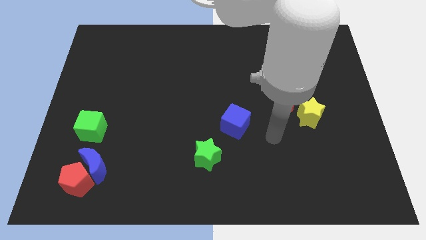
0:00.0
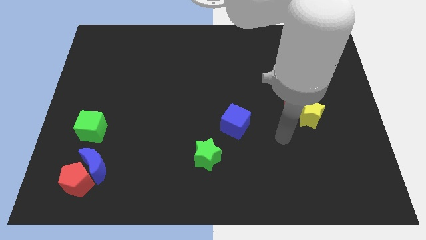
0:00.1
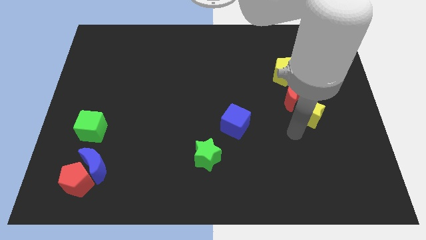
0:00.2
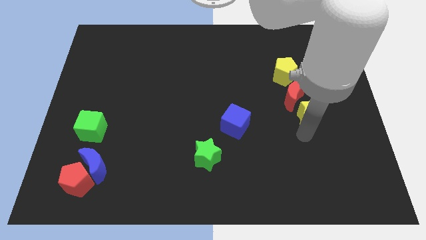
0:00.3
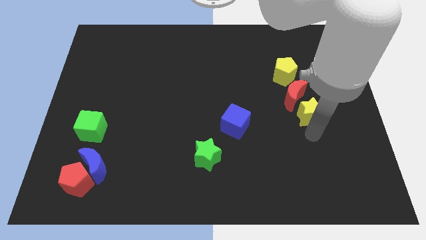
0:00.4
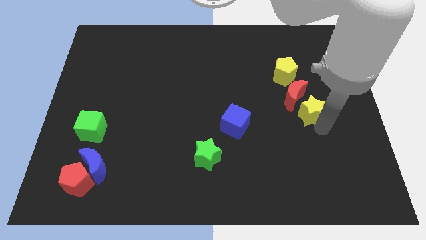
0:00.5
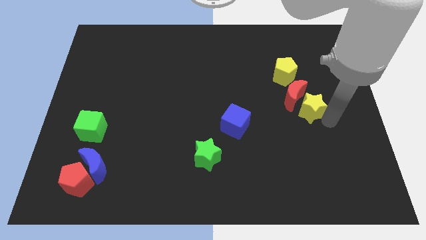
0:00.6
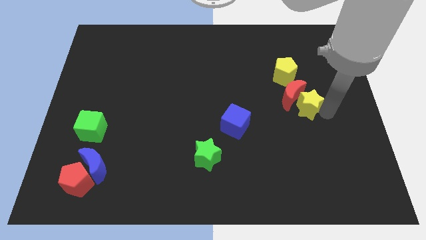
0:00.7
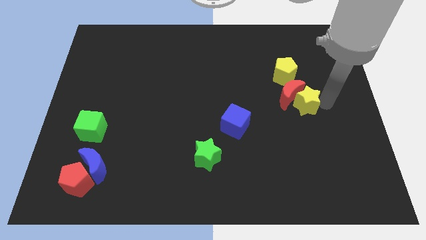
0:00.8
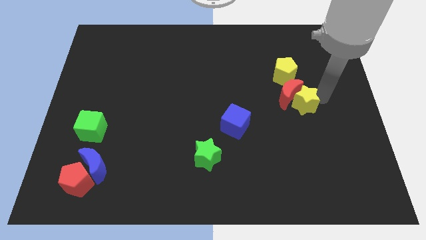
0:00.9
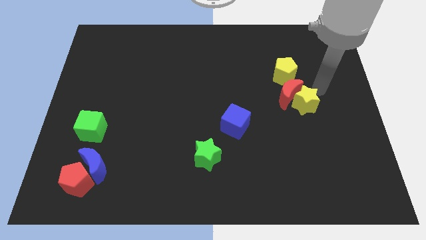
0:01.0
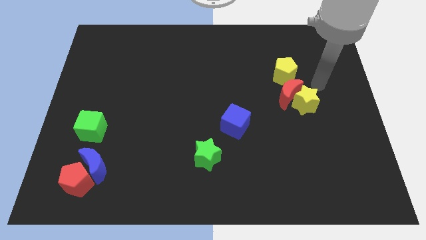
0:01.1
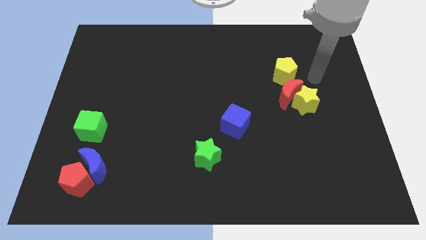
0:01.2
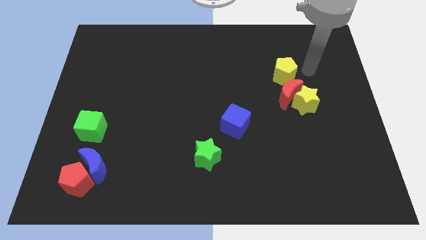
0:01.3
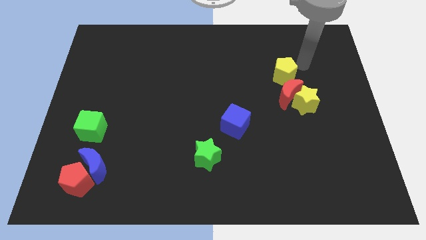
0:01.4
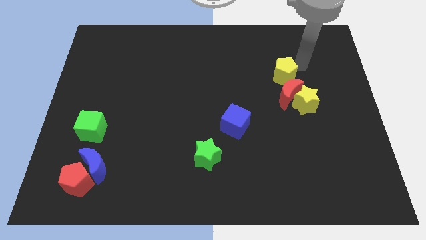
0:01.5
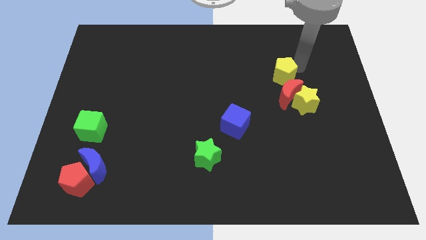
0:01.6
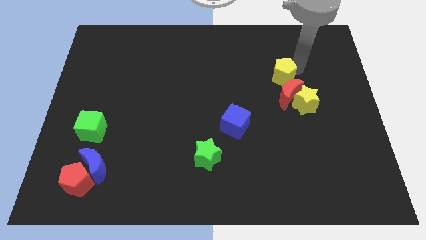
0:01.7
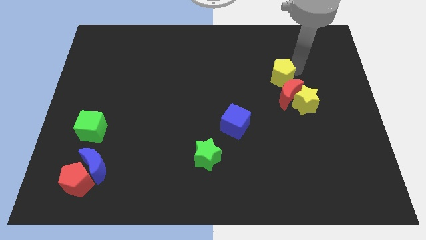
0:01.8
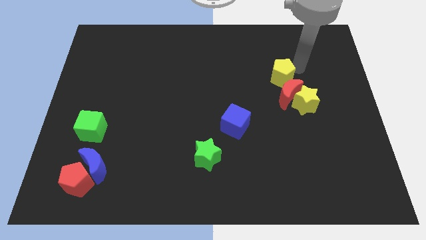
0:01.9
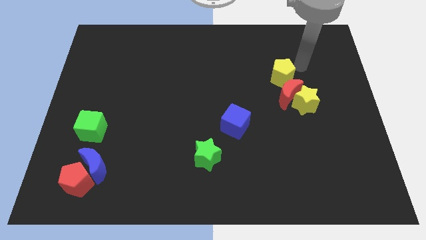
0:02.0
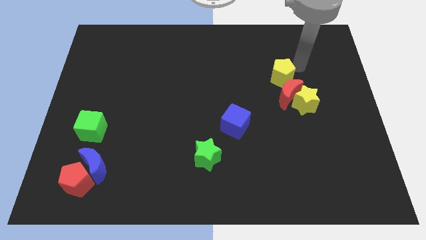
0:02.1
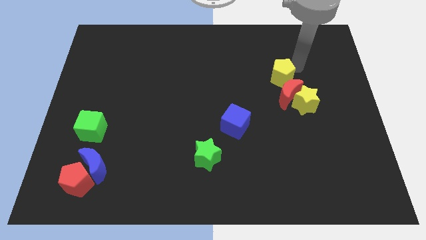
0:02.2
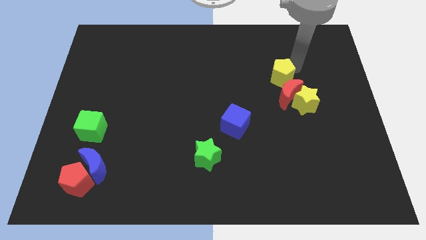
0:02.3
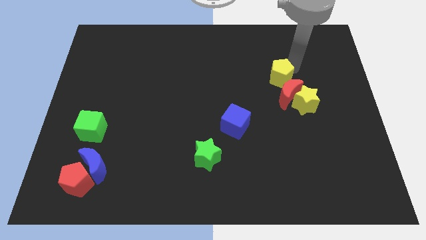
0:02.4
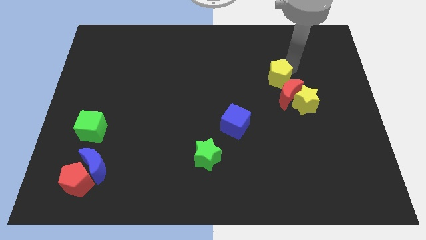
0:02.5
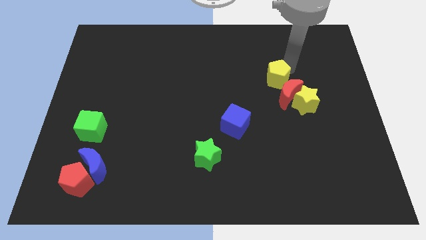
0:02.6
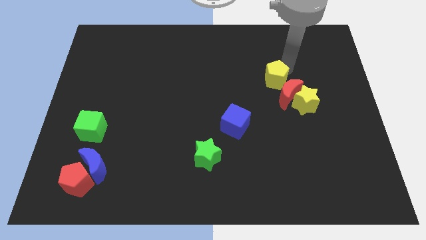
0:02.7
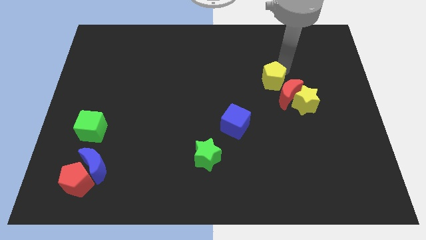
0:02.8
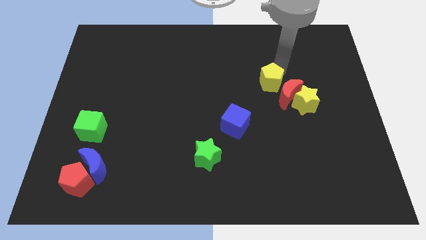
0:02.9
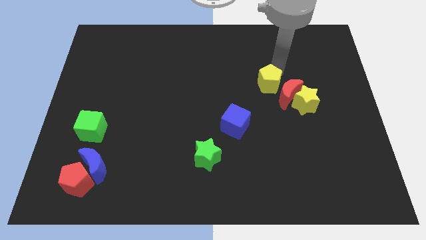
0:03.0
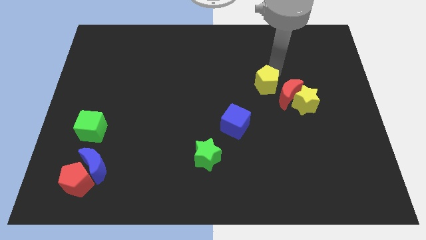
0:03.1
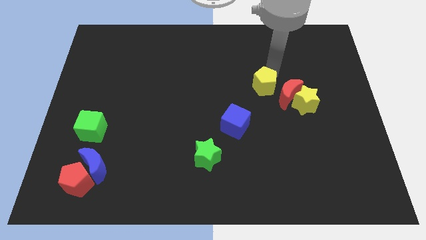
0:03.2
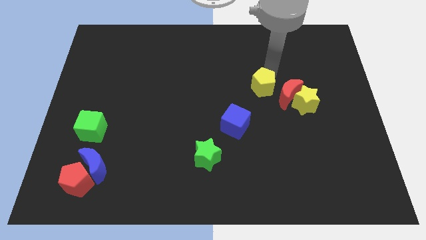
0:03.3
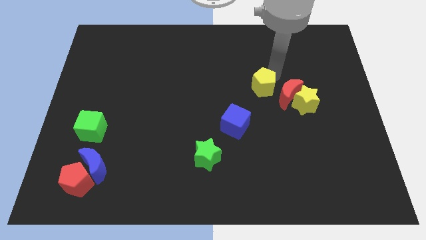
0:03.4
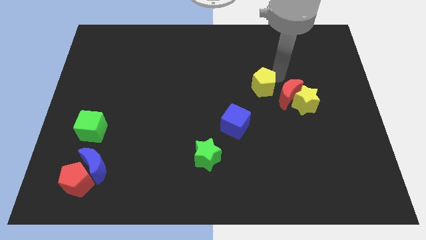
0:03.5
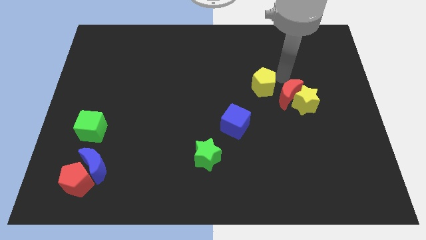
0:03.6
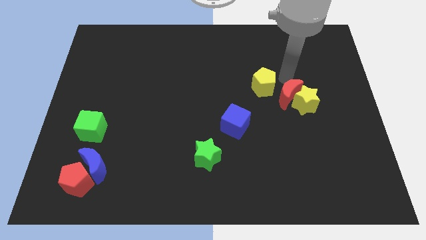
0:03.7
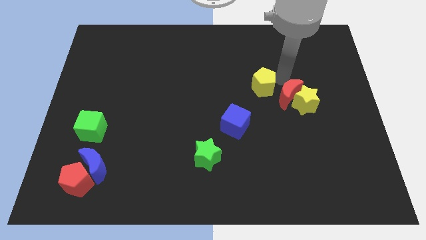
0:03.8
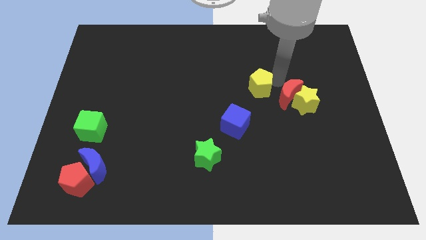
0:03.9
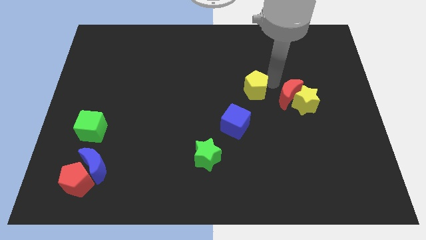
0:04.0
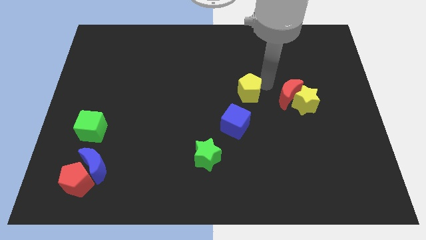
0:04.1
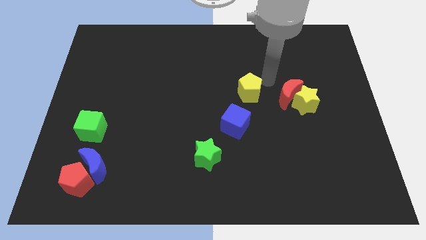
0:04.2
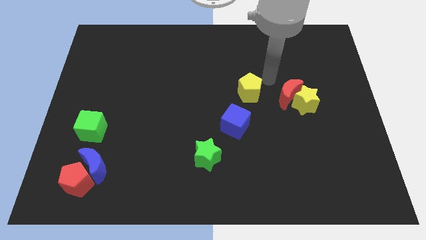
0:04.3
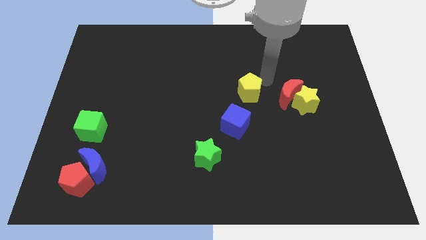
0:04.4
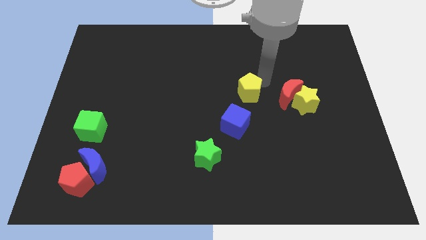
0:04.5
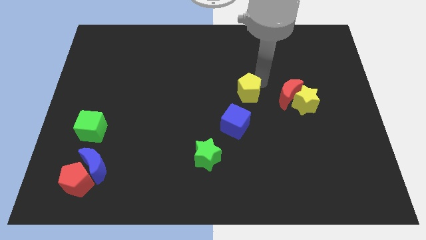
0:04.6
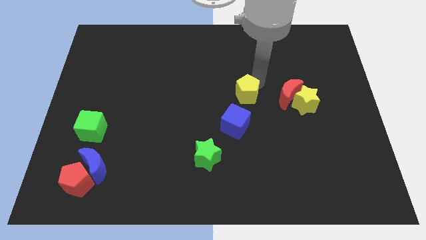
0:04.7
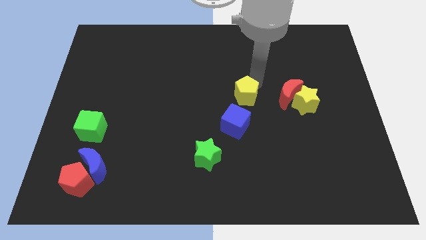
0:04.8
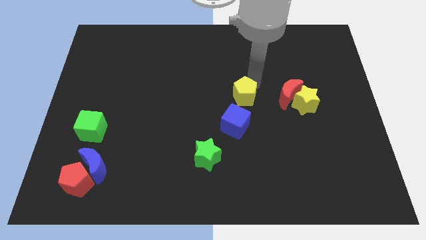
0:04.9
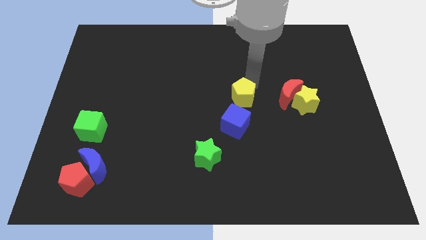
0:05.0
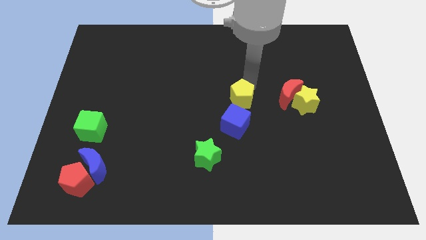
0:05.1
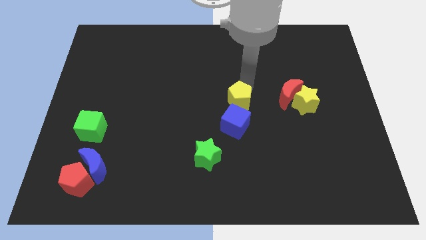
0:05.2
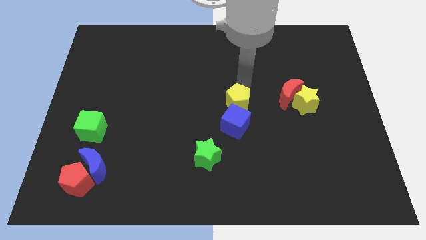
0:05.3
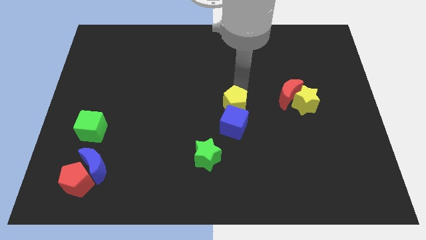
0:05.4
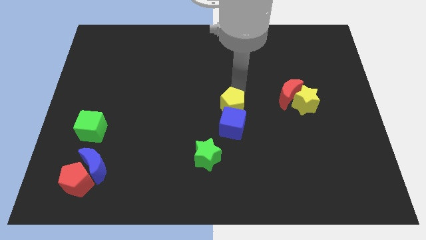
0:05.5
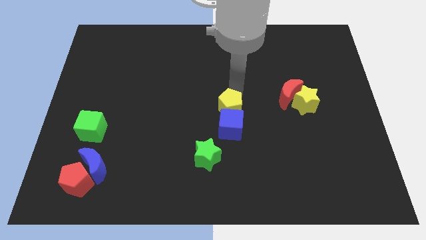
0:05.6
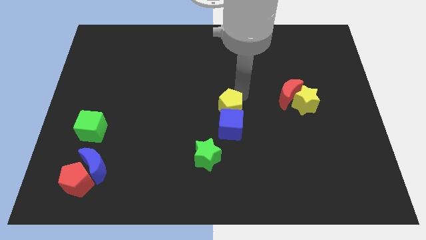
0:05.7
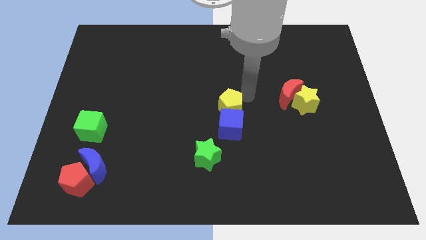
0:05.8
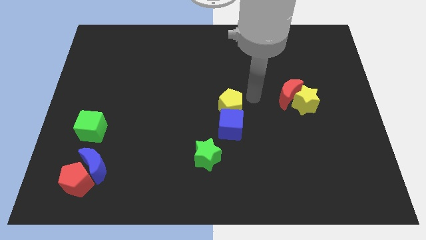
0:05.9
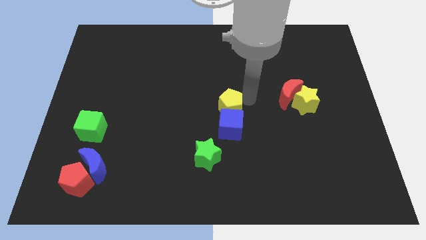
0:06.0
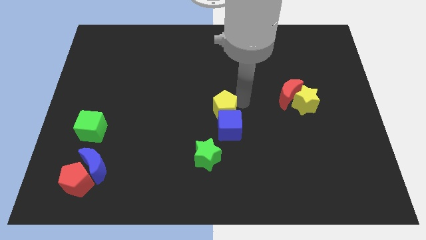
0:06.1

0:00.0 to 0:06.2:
put the yellow pentagon to the top side of the green star

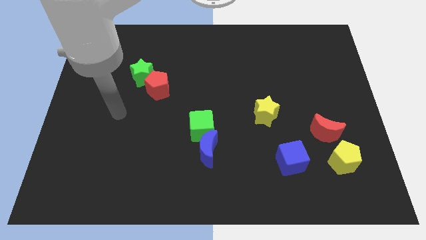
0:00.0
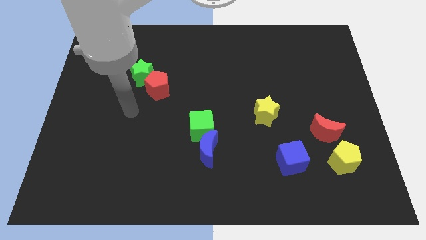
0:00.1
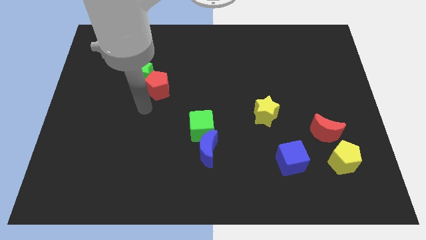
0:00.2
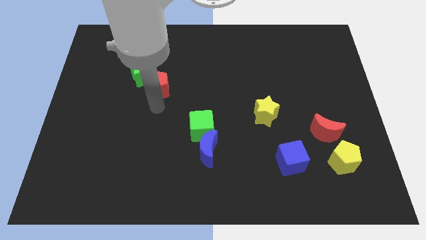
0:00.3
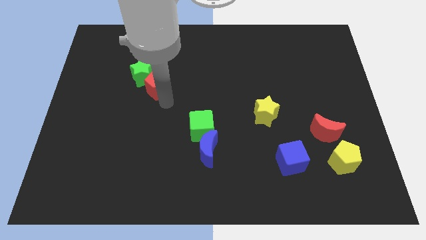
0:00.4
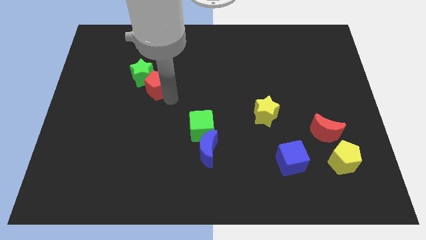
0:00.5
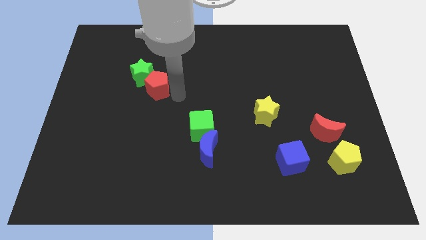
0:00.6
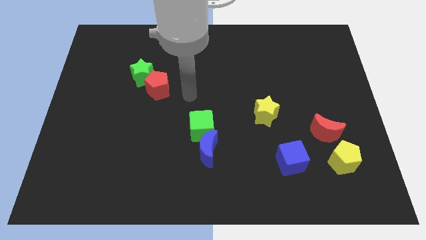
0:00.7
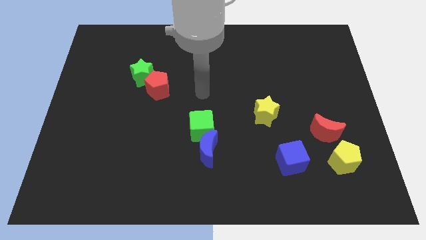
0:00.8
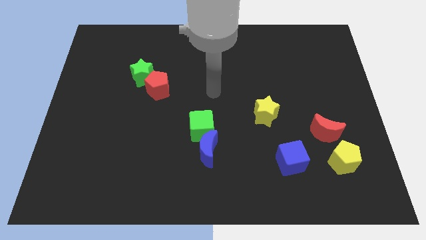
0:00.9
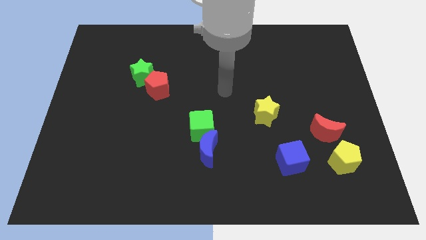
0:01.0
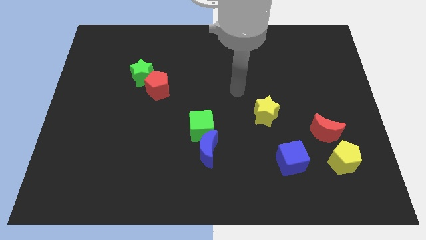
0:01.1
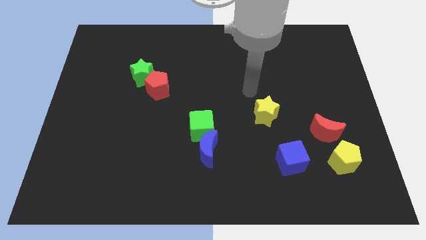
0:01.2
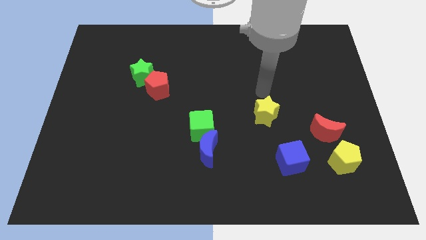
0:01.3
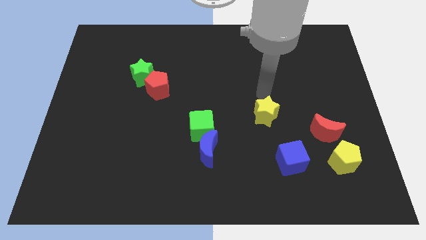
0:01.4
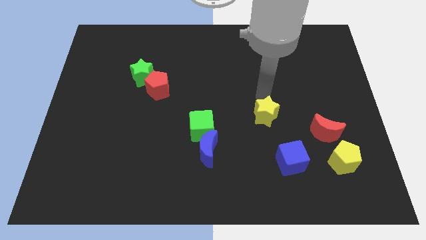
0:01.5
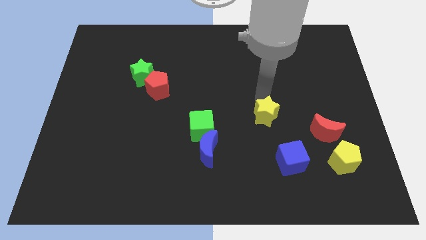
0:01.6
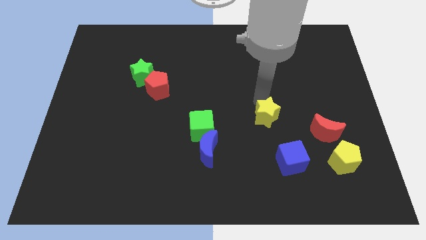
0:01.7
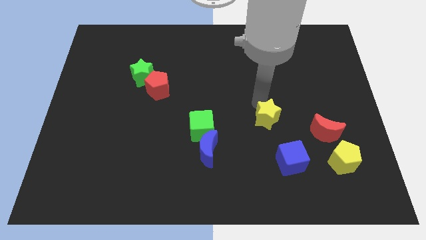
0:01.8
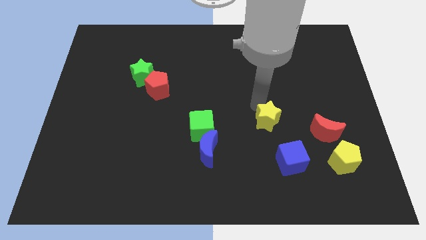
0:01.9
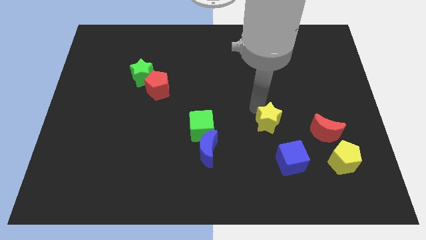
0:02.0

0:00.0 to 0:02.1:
push the yellow star to the top left side of the blue cube

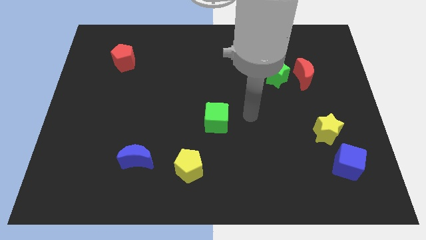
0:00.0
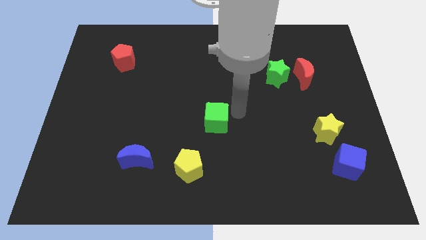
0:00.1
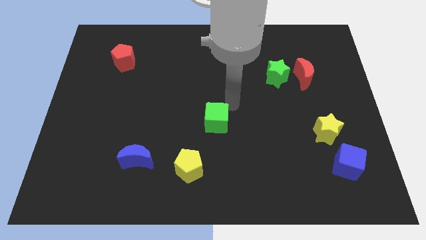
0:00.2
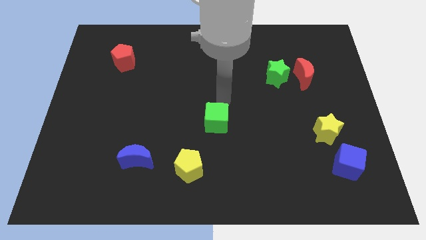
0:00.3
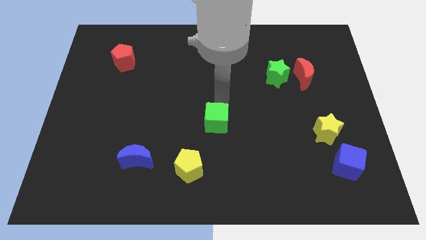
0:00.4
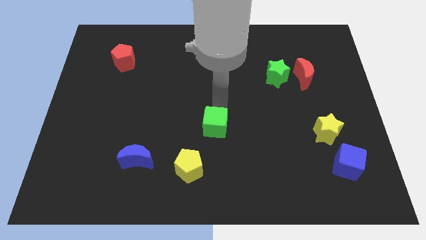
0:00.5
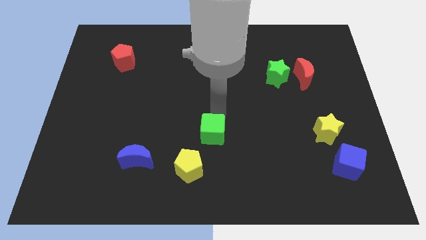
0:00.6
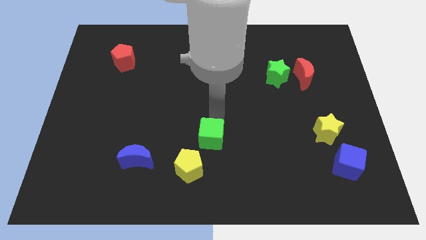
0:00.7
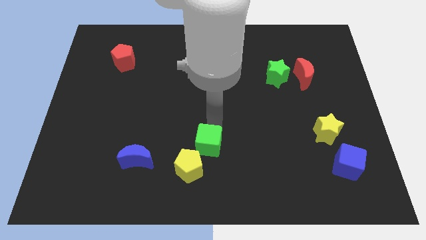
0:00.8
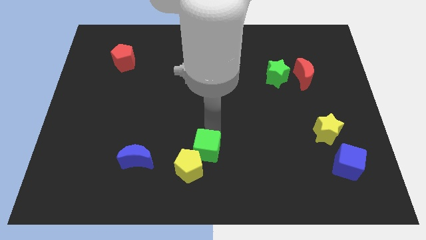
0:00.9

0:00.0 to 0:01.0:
move the green cube just right of the blue moon
